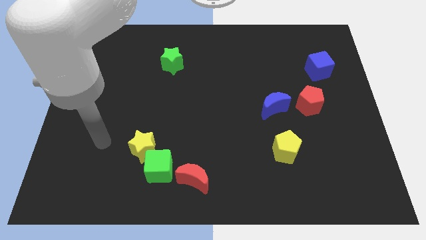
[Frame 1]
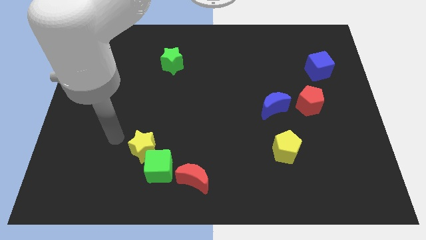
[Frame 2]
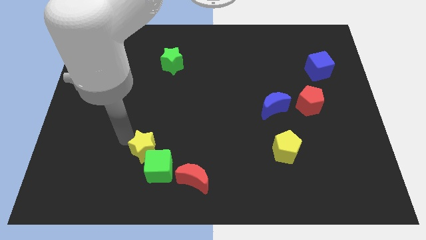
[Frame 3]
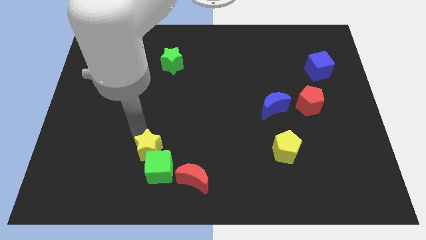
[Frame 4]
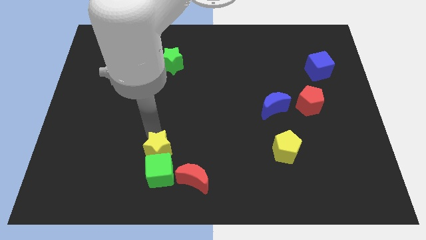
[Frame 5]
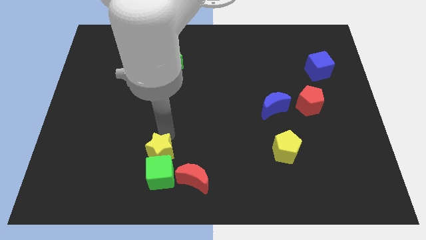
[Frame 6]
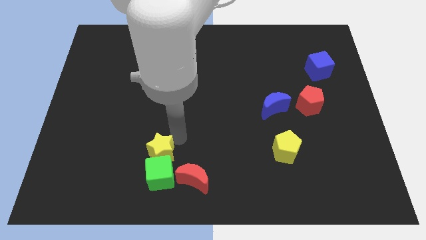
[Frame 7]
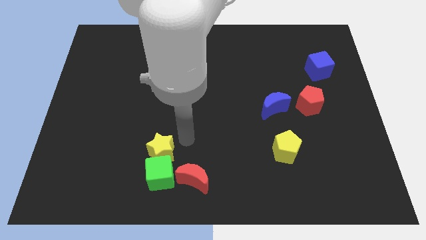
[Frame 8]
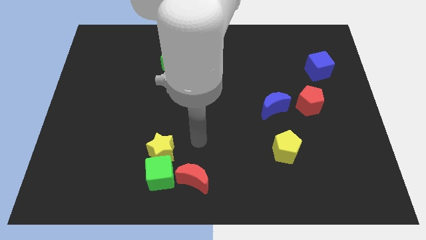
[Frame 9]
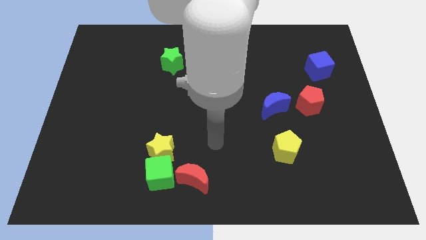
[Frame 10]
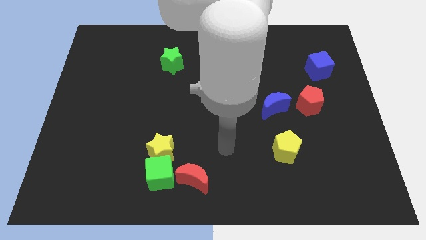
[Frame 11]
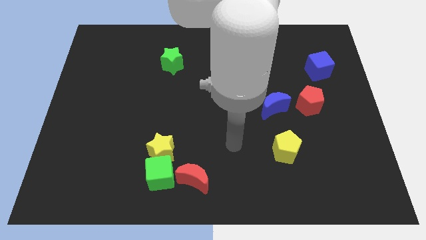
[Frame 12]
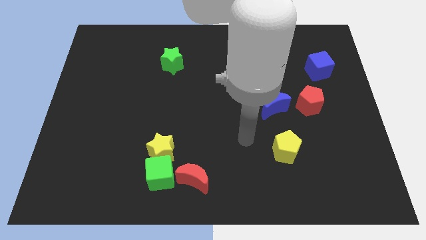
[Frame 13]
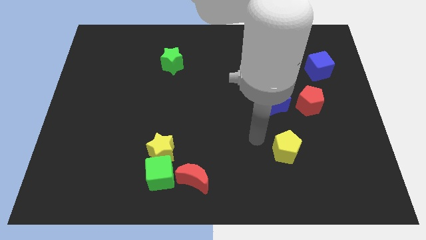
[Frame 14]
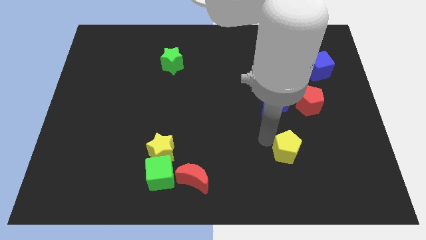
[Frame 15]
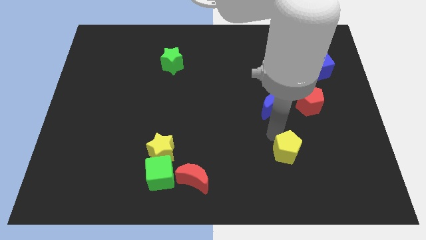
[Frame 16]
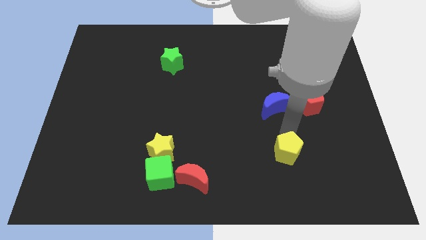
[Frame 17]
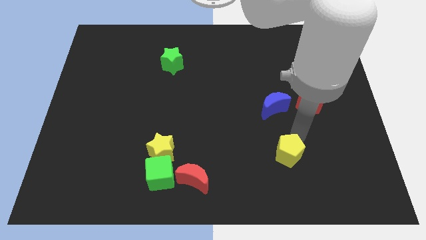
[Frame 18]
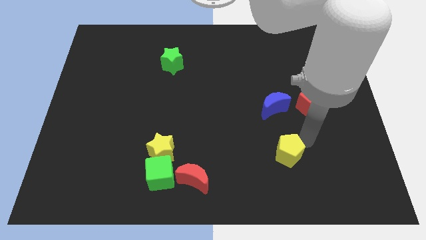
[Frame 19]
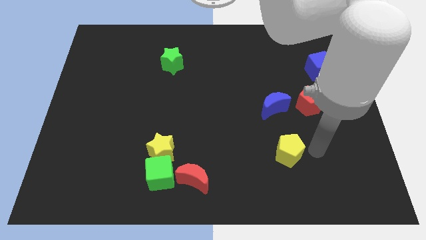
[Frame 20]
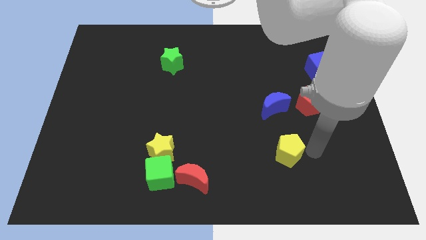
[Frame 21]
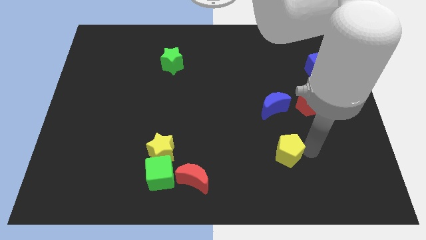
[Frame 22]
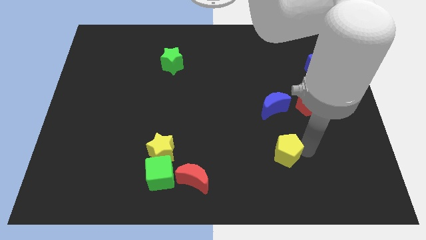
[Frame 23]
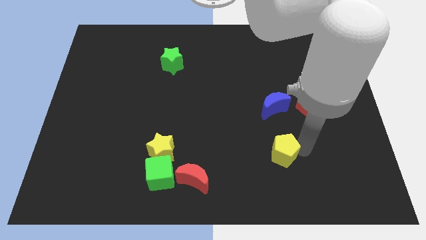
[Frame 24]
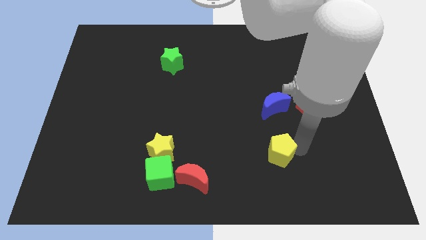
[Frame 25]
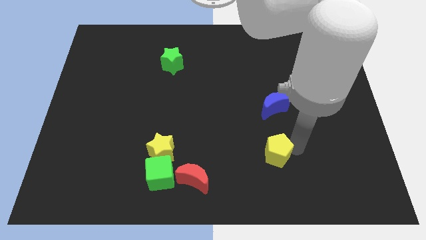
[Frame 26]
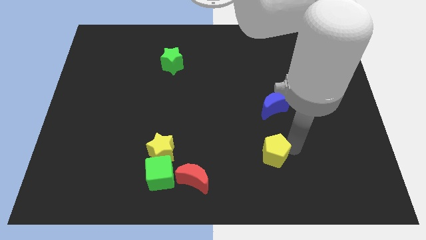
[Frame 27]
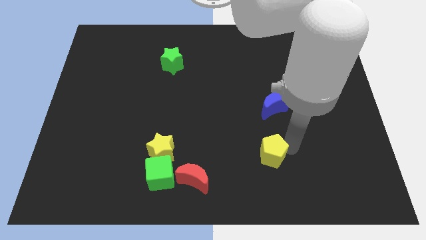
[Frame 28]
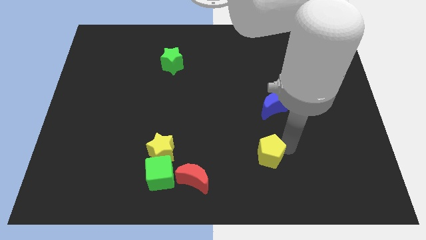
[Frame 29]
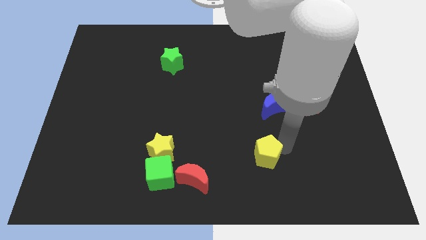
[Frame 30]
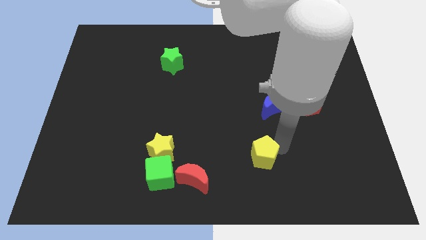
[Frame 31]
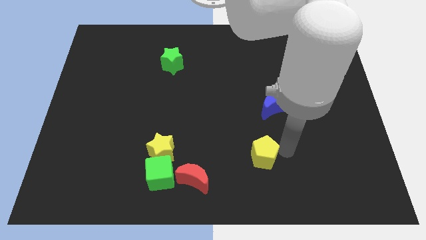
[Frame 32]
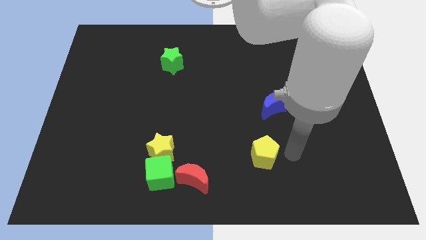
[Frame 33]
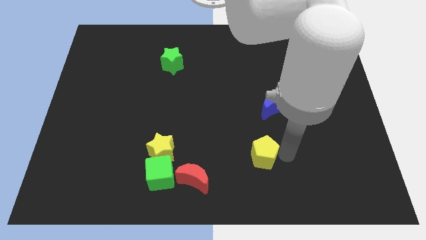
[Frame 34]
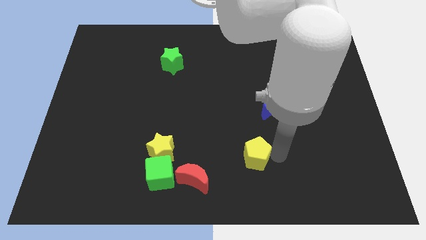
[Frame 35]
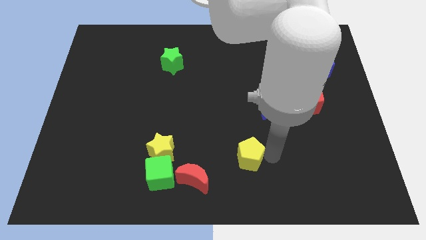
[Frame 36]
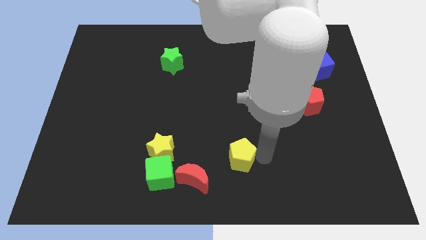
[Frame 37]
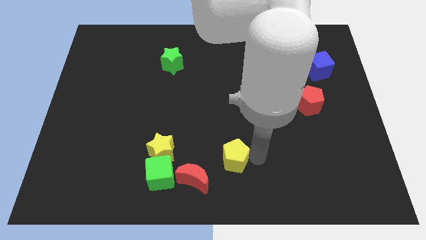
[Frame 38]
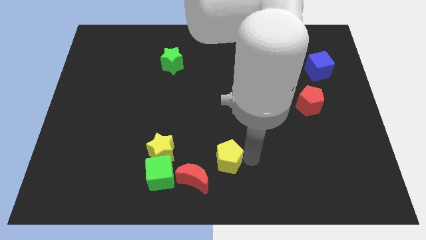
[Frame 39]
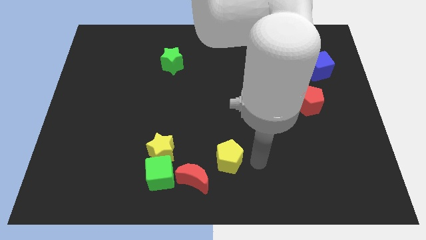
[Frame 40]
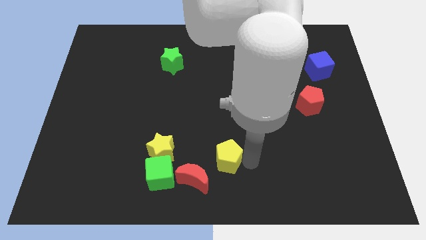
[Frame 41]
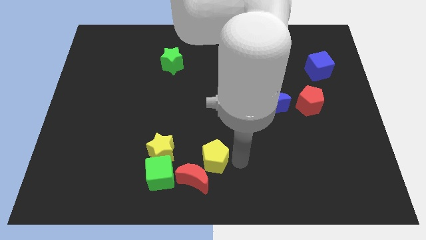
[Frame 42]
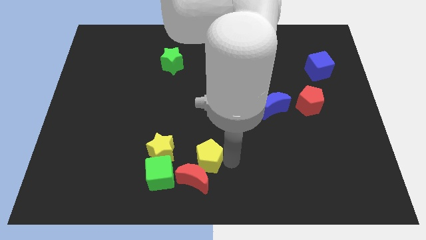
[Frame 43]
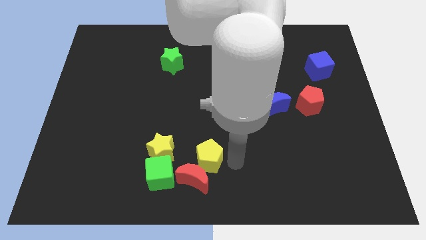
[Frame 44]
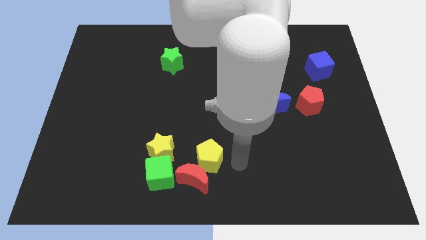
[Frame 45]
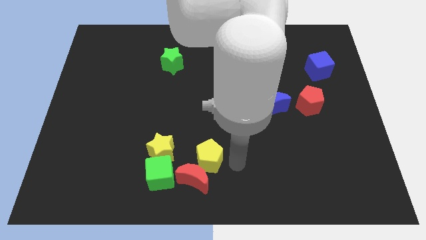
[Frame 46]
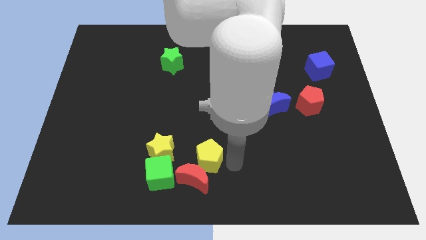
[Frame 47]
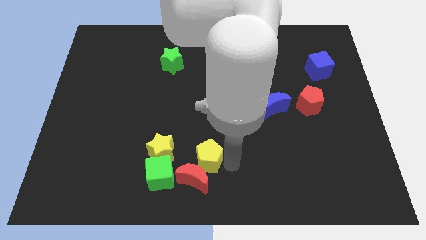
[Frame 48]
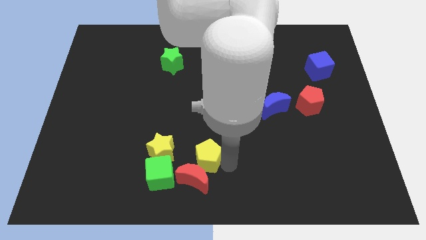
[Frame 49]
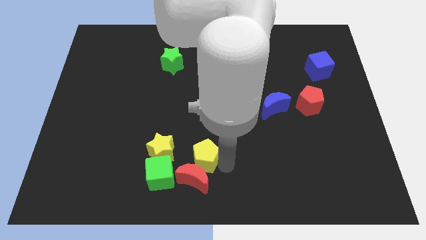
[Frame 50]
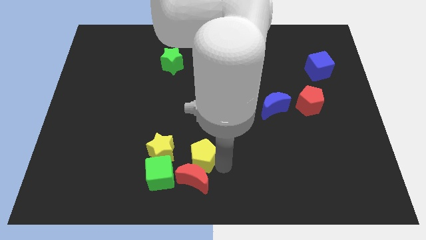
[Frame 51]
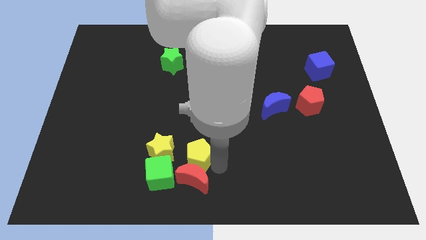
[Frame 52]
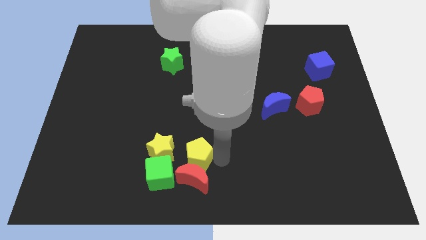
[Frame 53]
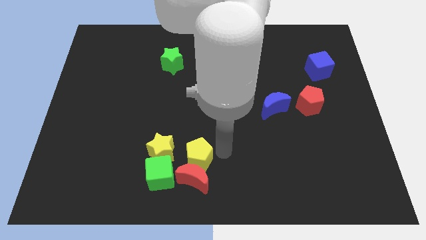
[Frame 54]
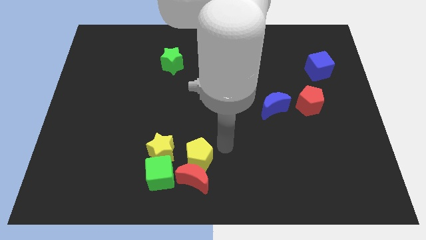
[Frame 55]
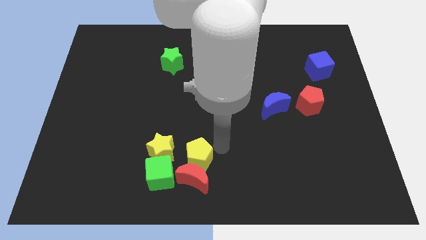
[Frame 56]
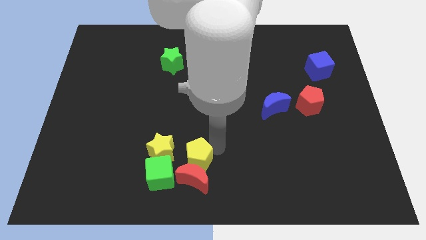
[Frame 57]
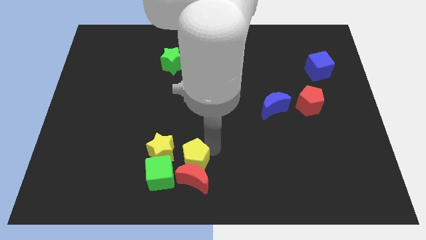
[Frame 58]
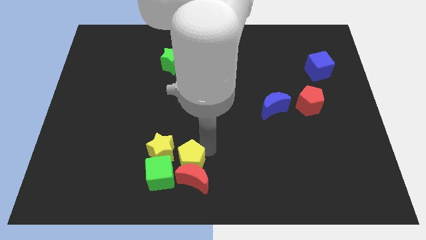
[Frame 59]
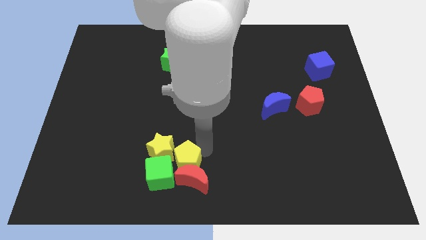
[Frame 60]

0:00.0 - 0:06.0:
slide the yellow pentagon next to the green cube

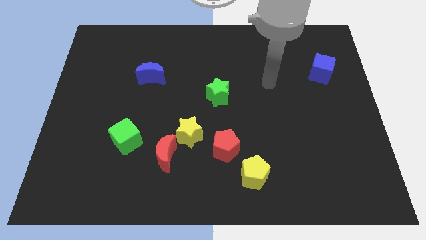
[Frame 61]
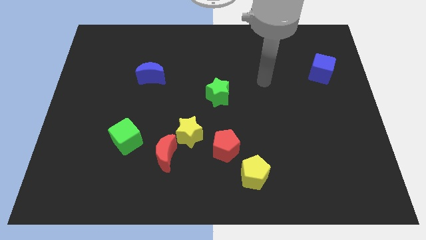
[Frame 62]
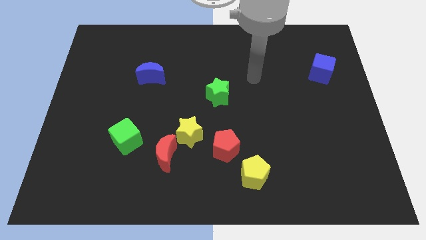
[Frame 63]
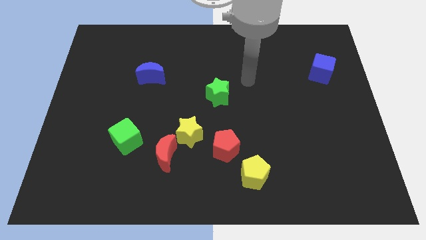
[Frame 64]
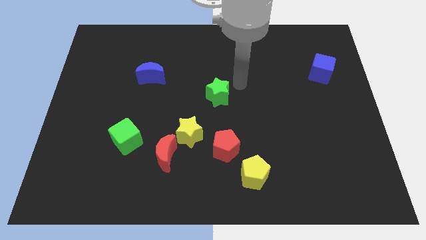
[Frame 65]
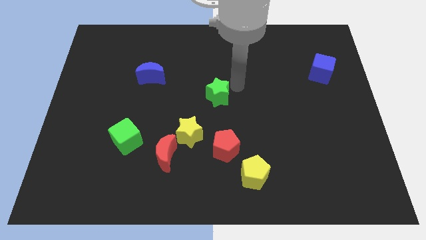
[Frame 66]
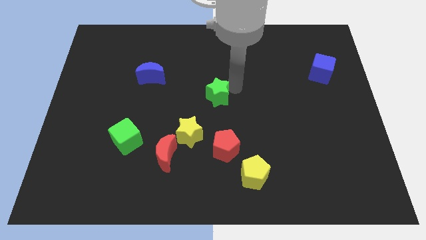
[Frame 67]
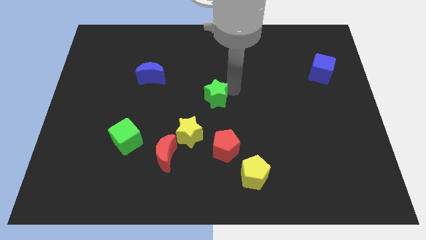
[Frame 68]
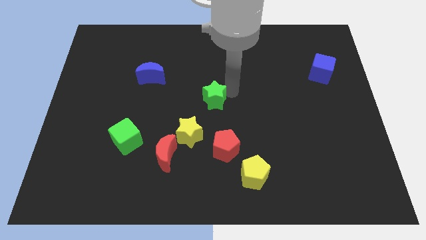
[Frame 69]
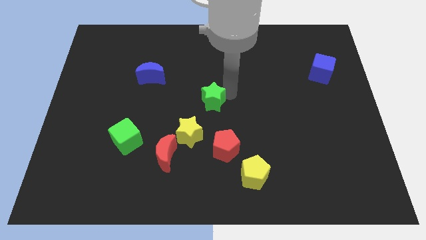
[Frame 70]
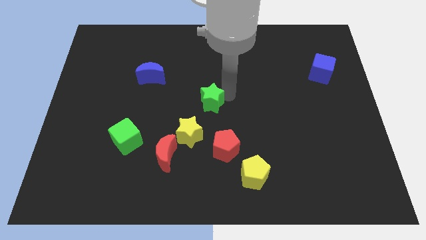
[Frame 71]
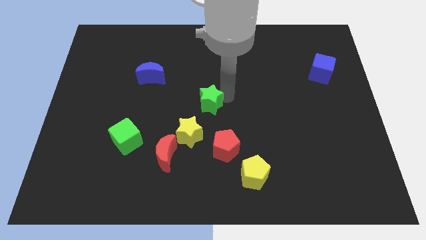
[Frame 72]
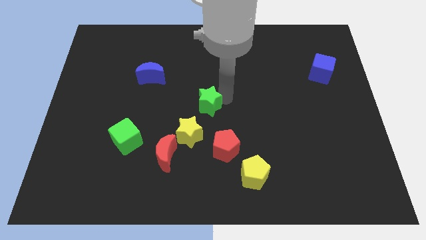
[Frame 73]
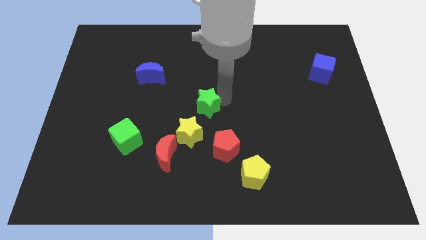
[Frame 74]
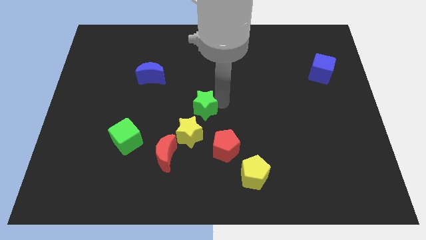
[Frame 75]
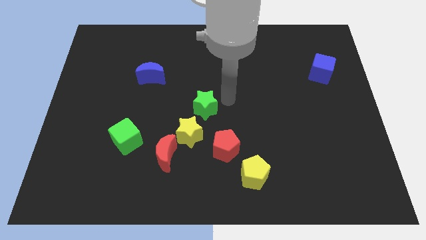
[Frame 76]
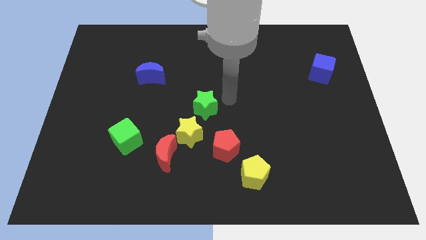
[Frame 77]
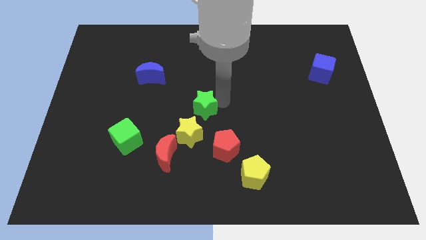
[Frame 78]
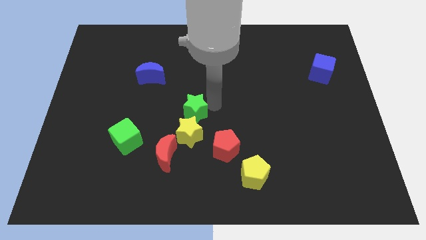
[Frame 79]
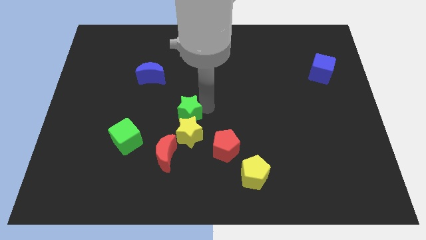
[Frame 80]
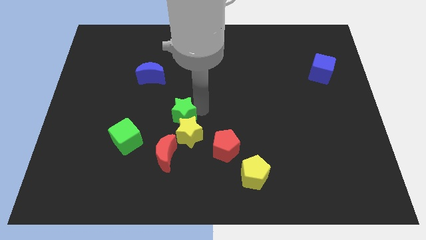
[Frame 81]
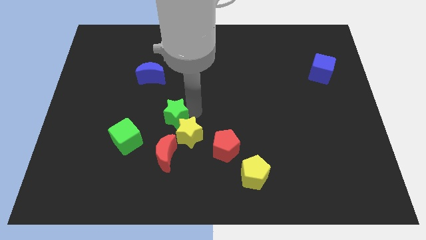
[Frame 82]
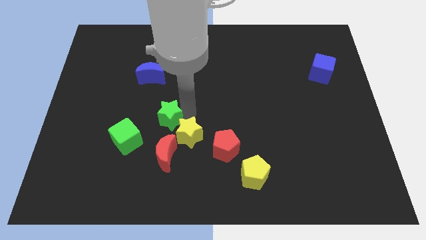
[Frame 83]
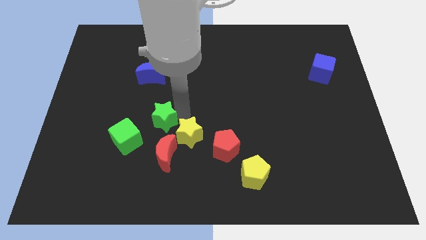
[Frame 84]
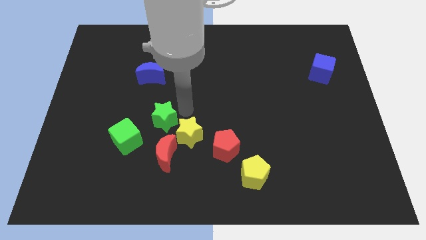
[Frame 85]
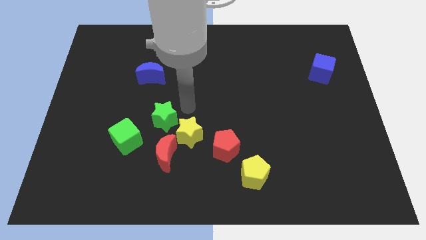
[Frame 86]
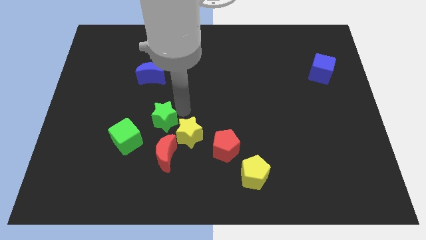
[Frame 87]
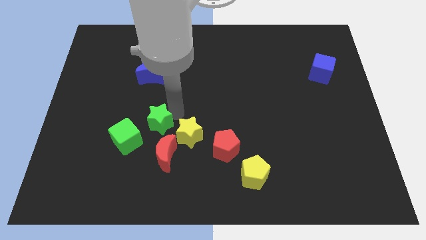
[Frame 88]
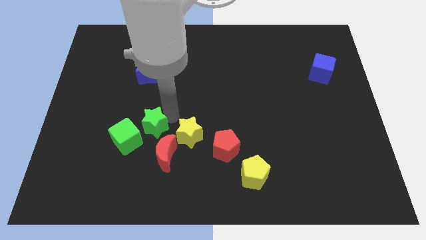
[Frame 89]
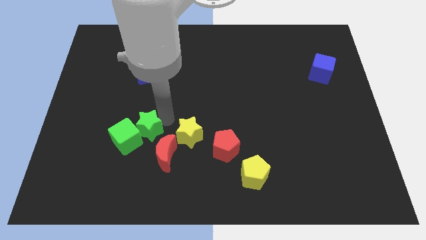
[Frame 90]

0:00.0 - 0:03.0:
push the green star to the green cube
